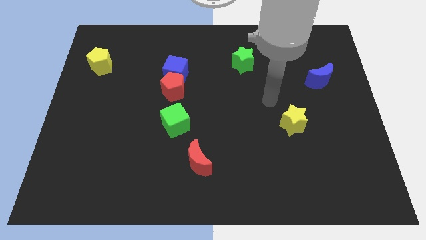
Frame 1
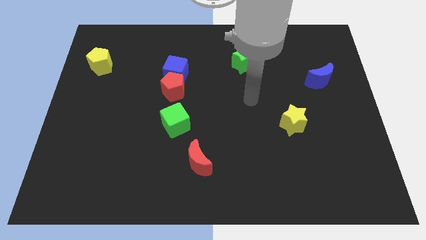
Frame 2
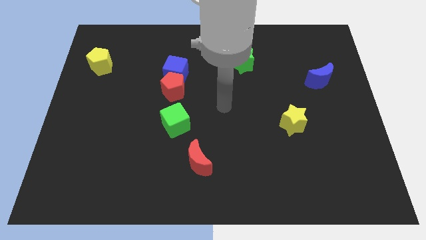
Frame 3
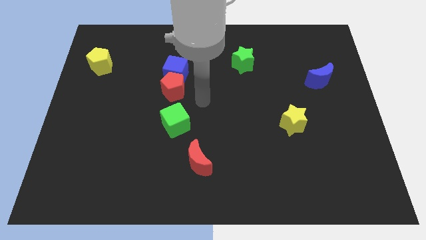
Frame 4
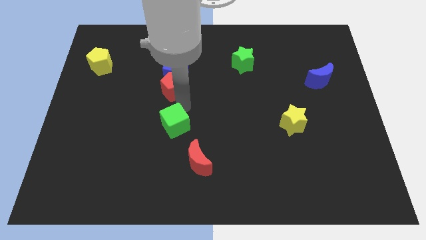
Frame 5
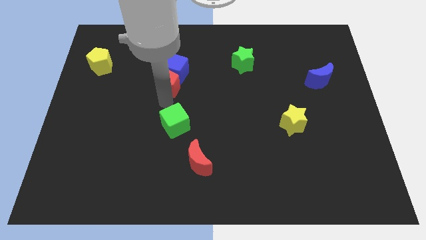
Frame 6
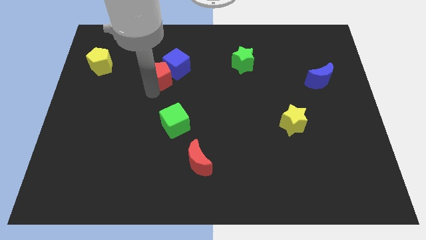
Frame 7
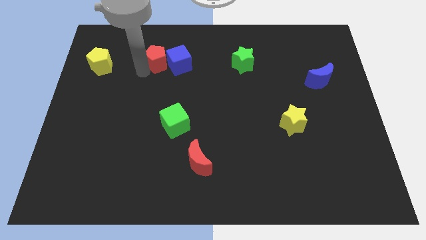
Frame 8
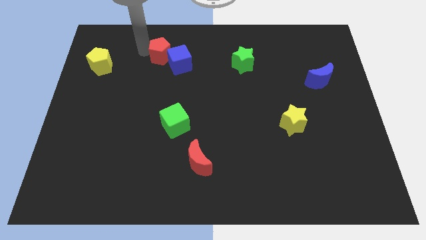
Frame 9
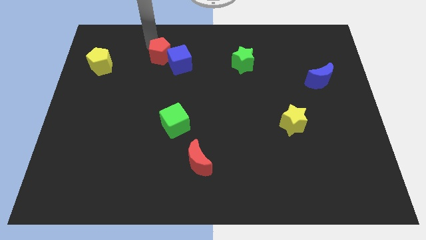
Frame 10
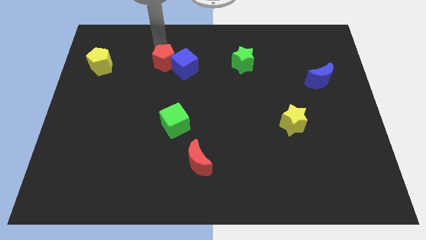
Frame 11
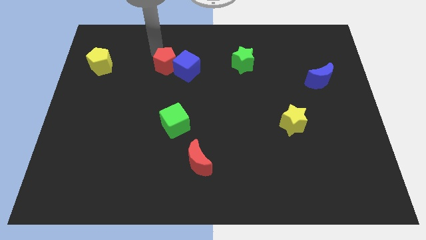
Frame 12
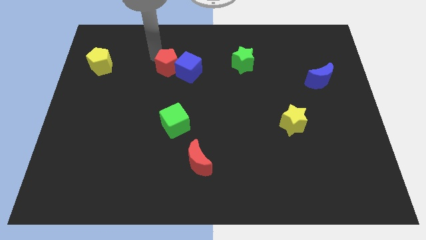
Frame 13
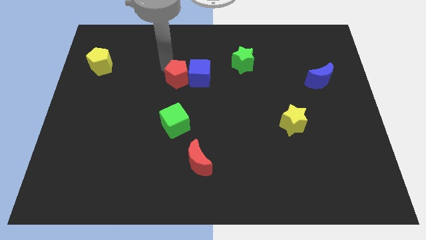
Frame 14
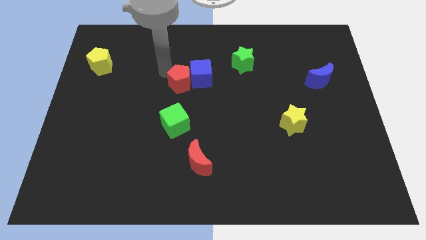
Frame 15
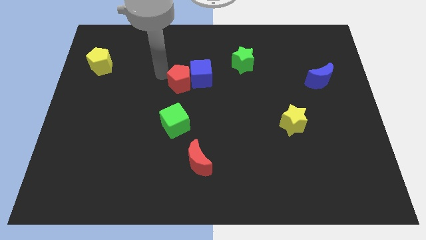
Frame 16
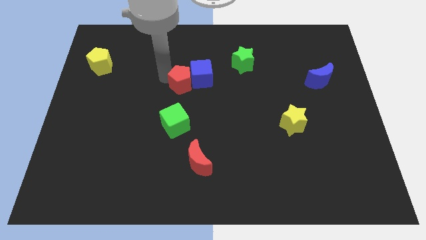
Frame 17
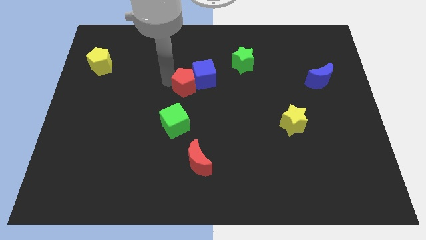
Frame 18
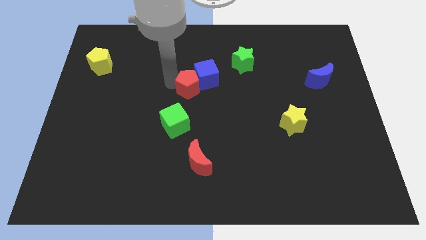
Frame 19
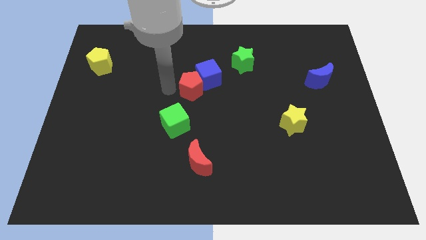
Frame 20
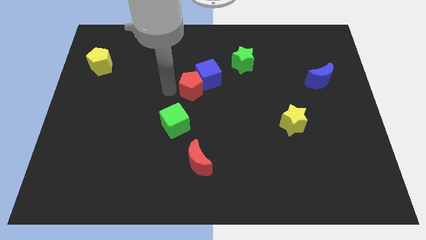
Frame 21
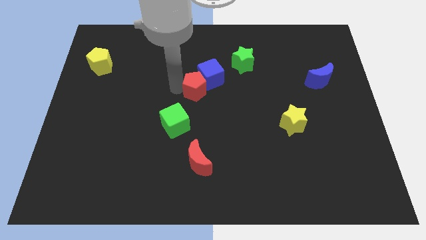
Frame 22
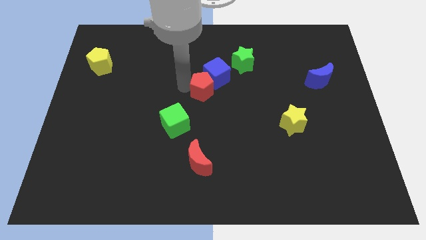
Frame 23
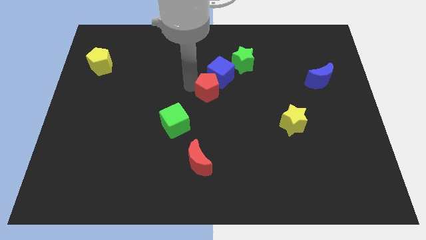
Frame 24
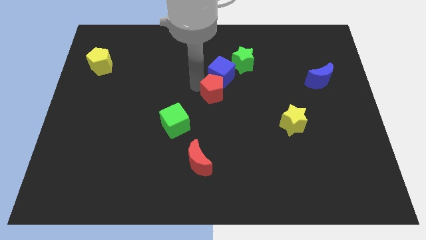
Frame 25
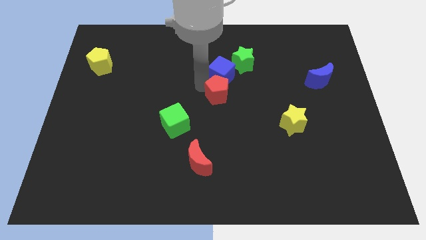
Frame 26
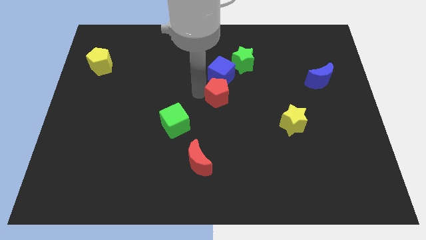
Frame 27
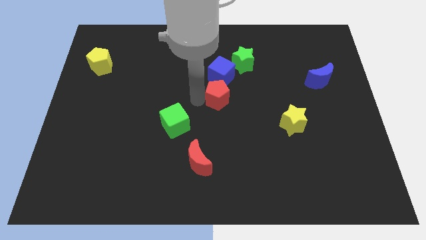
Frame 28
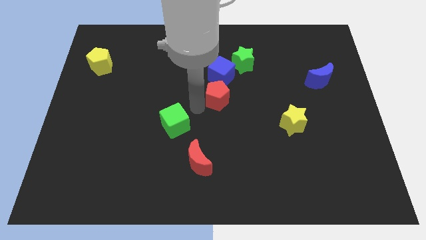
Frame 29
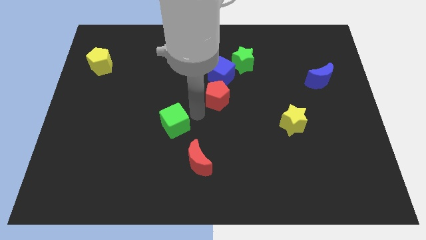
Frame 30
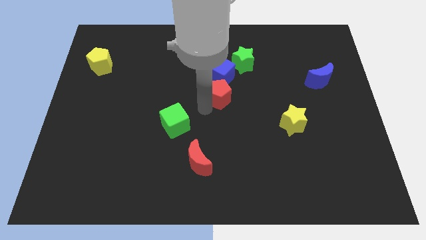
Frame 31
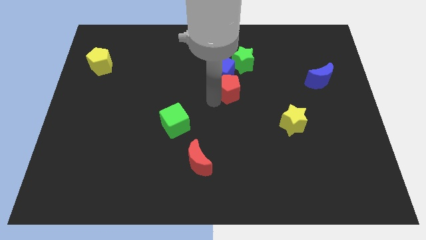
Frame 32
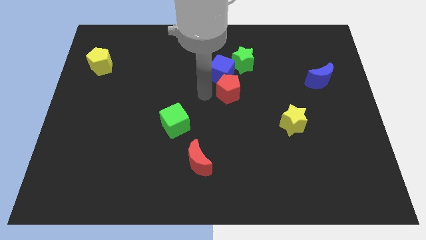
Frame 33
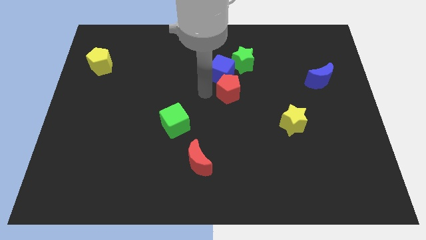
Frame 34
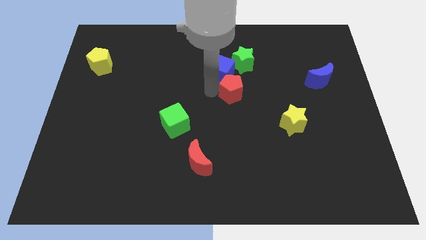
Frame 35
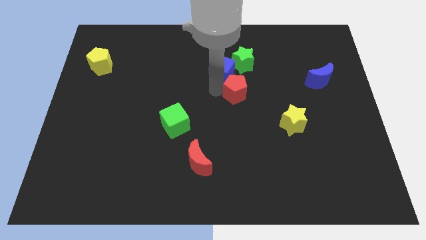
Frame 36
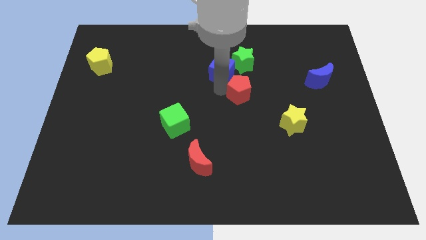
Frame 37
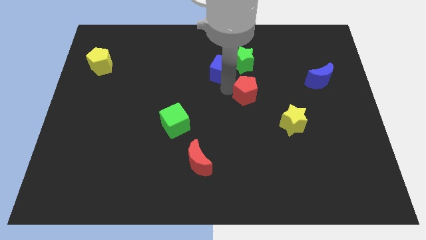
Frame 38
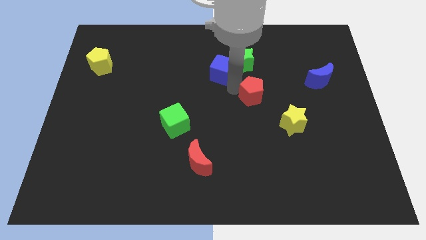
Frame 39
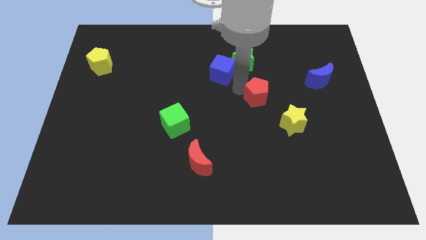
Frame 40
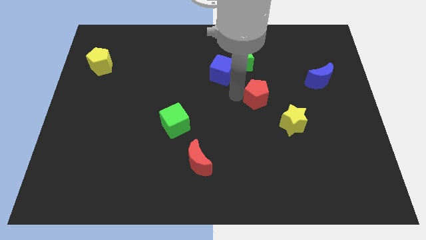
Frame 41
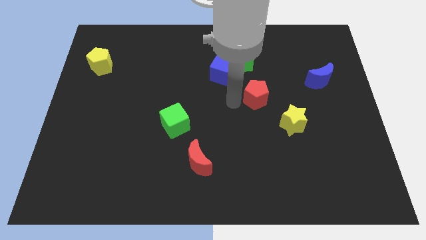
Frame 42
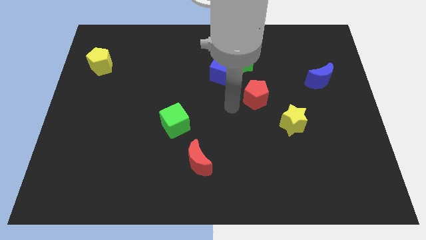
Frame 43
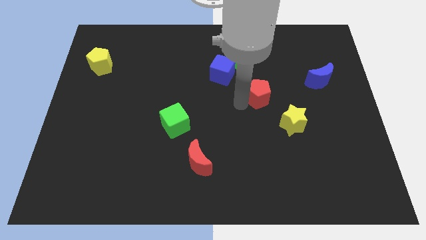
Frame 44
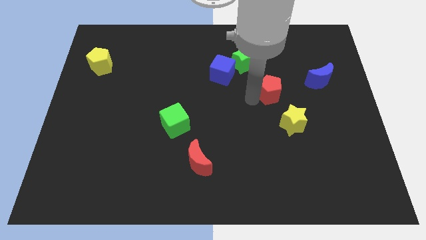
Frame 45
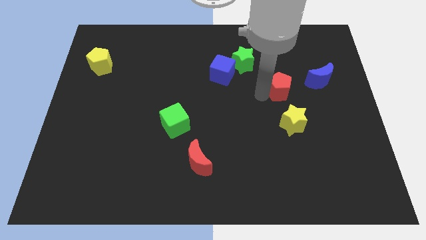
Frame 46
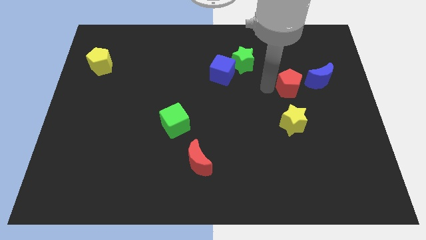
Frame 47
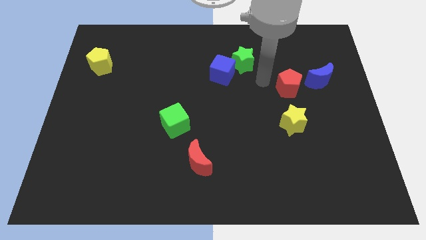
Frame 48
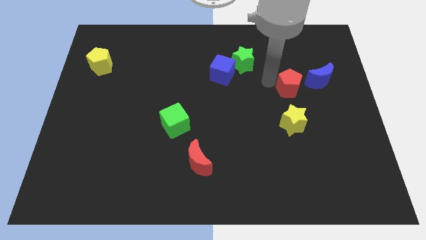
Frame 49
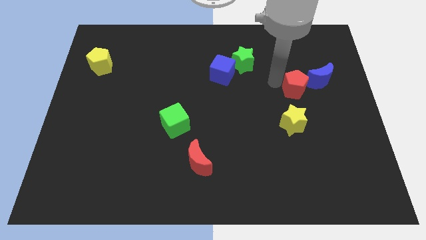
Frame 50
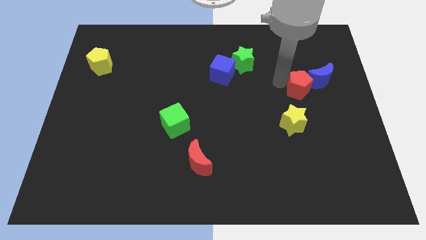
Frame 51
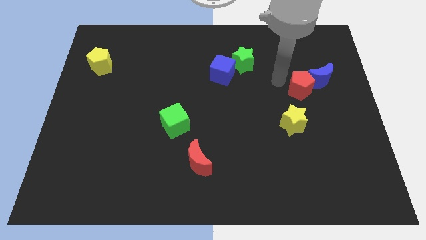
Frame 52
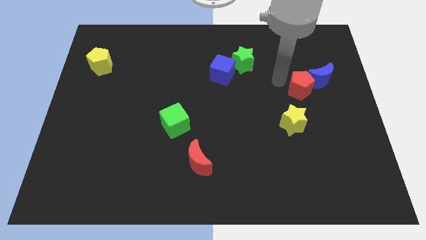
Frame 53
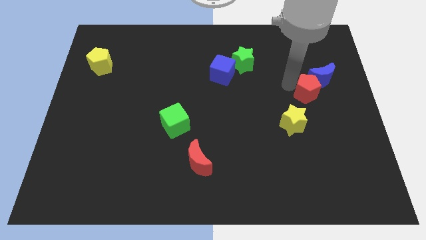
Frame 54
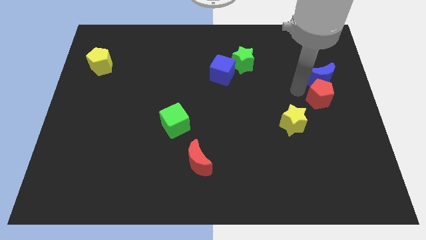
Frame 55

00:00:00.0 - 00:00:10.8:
push the red pentagon to the center right

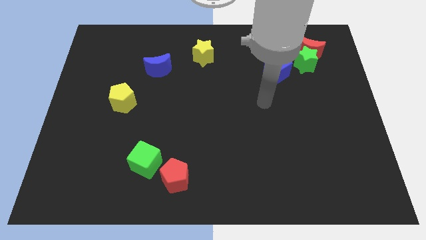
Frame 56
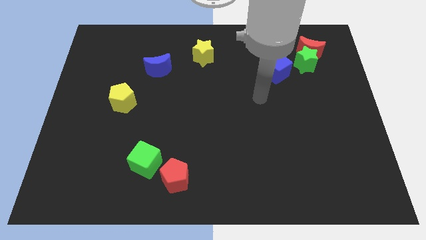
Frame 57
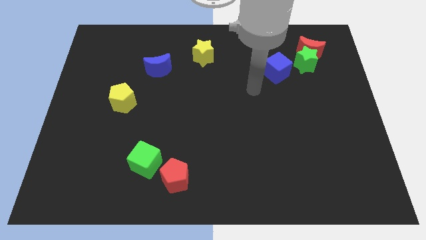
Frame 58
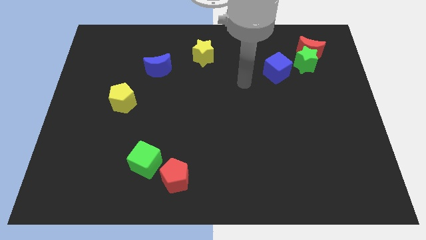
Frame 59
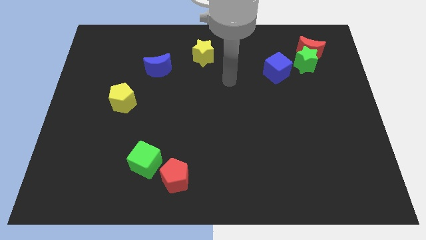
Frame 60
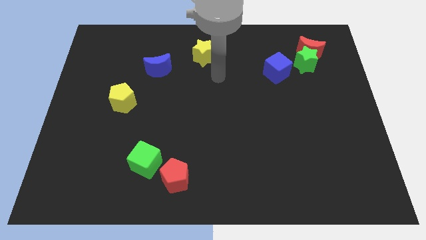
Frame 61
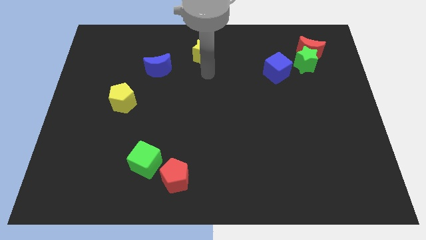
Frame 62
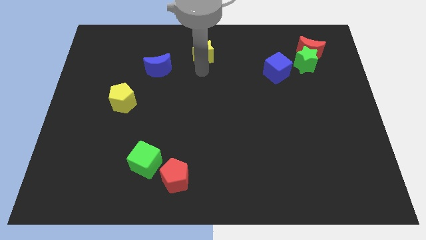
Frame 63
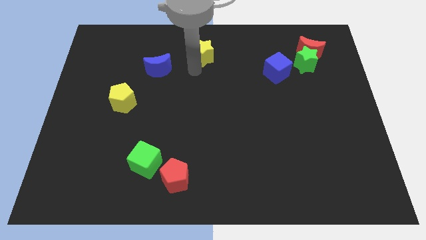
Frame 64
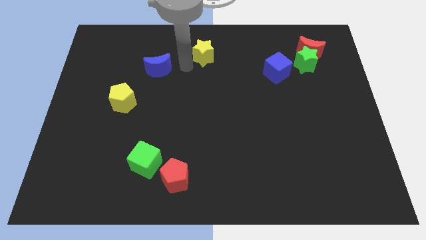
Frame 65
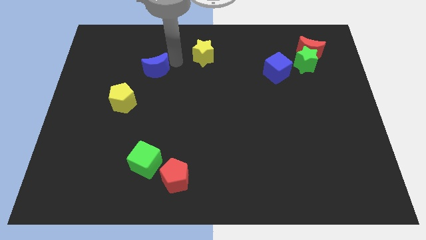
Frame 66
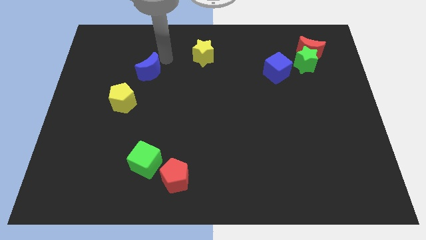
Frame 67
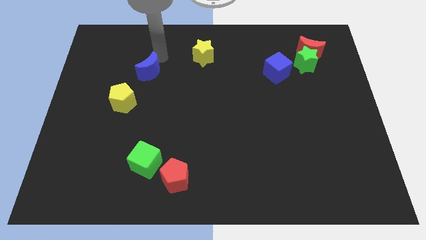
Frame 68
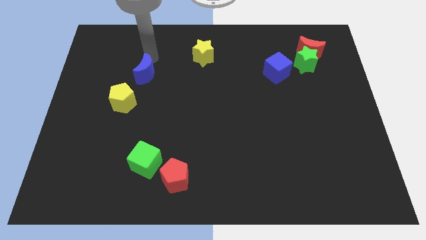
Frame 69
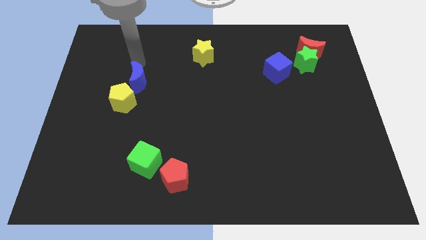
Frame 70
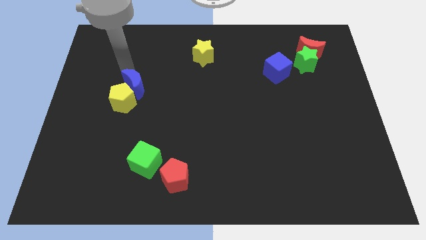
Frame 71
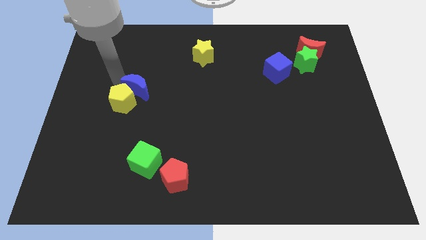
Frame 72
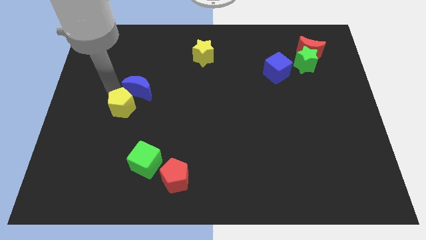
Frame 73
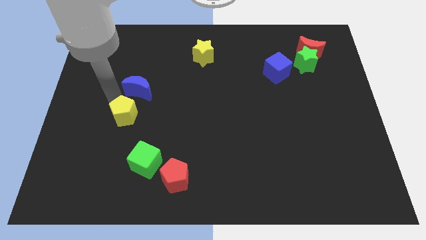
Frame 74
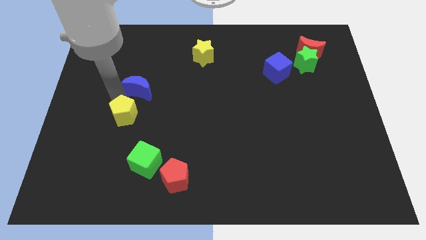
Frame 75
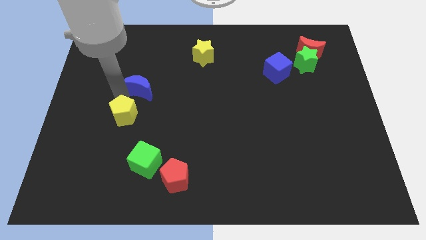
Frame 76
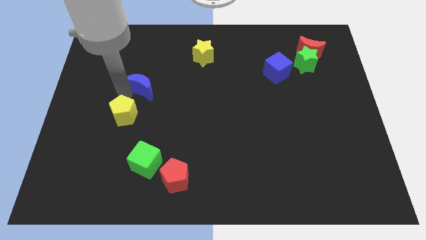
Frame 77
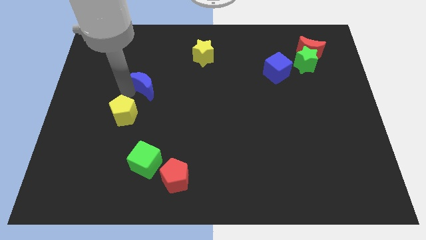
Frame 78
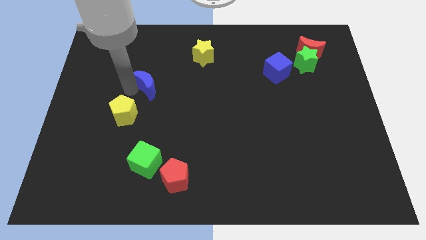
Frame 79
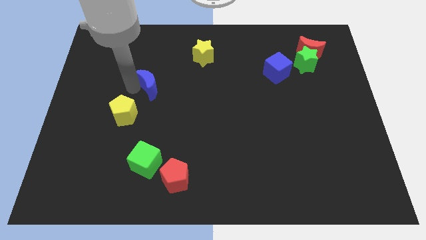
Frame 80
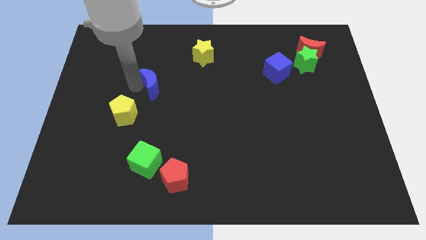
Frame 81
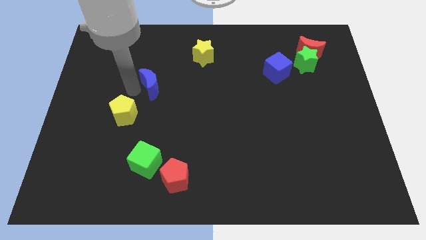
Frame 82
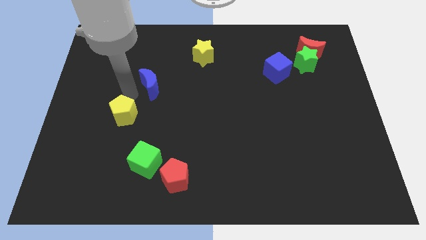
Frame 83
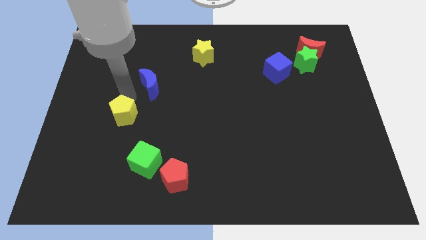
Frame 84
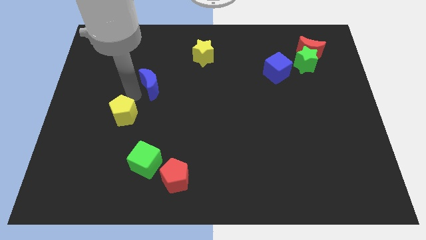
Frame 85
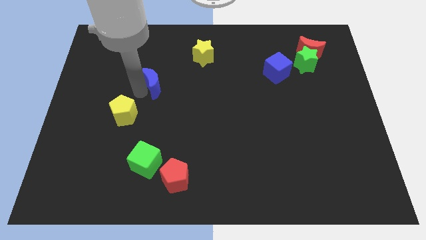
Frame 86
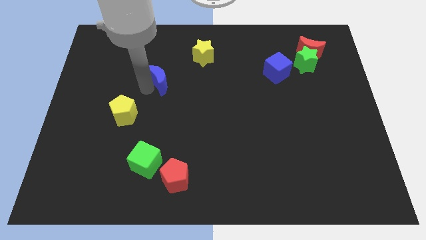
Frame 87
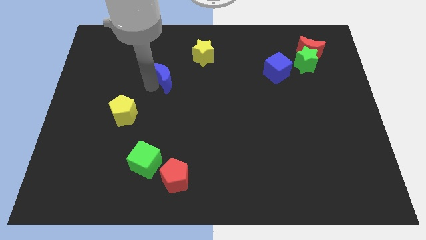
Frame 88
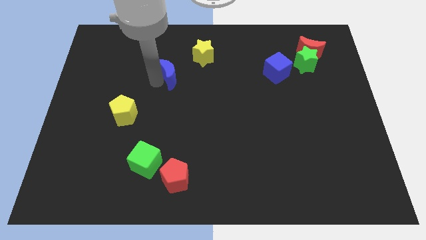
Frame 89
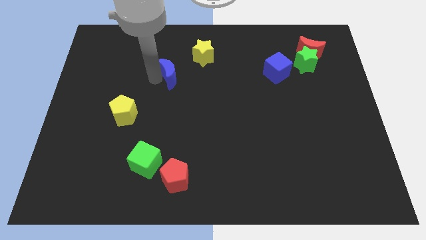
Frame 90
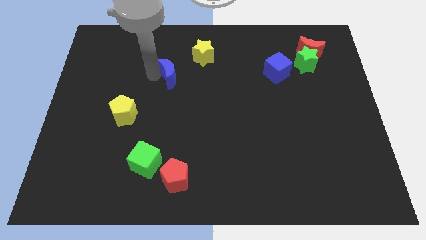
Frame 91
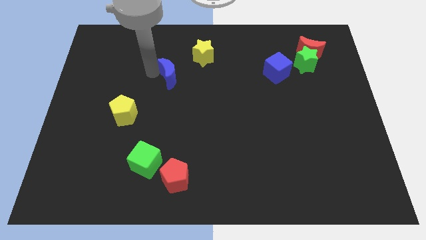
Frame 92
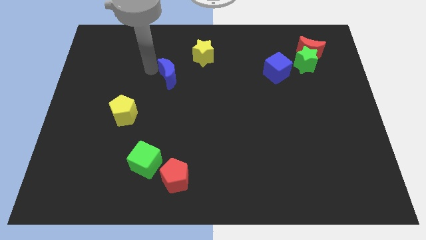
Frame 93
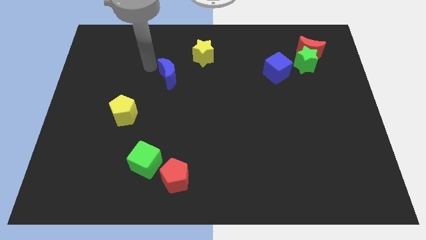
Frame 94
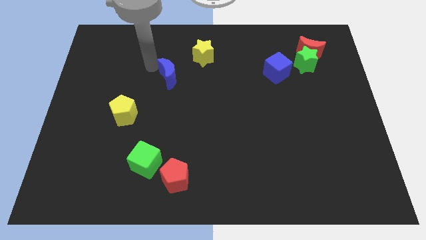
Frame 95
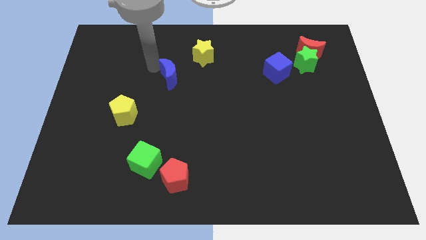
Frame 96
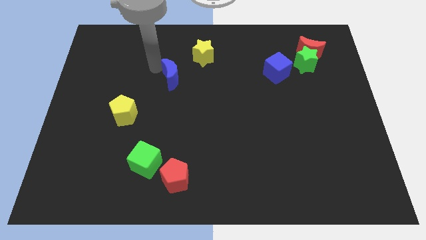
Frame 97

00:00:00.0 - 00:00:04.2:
slide the blue moon to the center of the board
